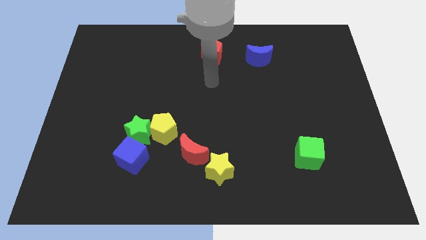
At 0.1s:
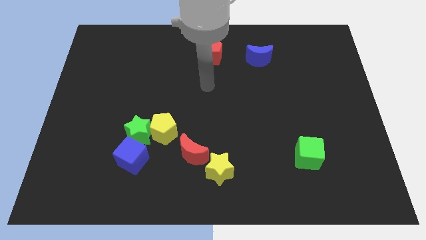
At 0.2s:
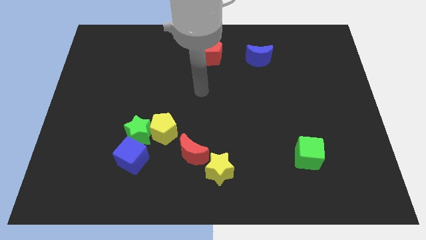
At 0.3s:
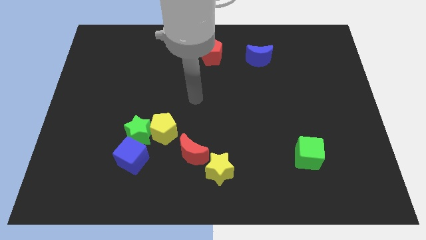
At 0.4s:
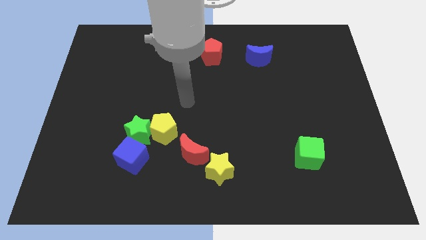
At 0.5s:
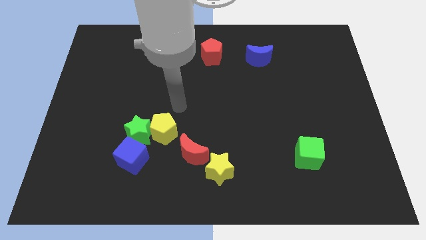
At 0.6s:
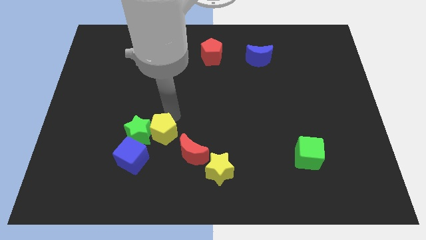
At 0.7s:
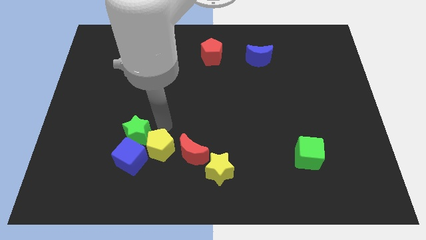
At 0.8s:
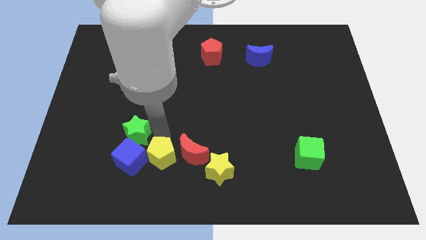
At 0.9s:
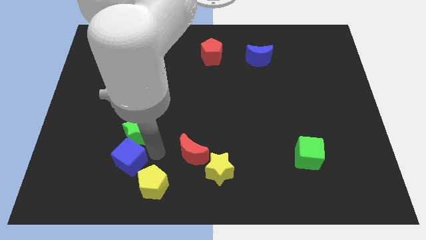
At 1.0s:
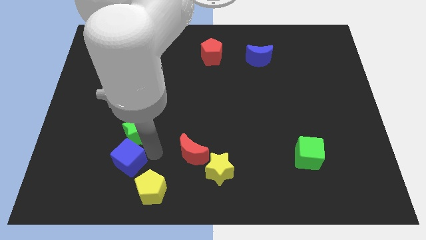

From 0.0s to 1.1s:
pull the green star apart from the yellow pentagon and blue cube

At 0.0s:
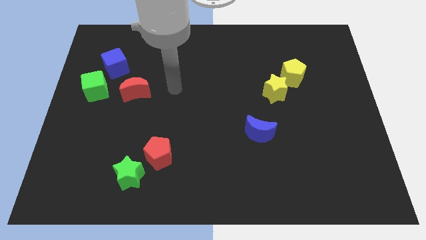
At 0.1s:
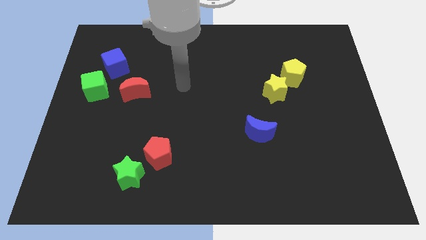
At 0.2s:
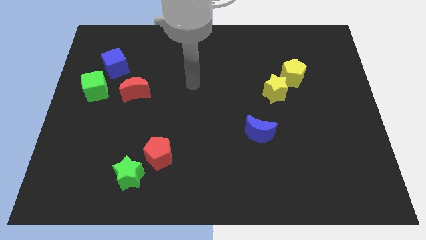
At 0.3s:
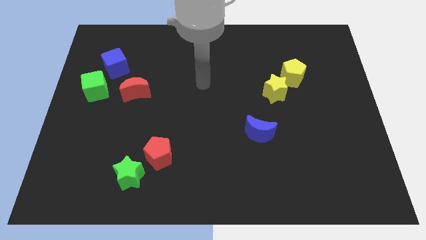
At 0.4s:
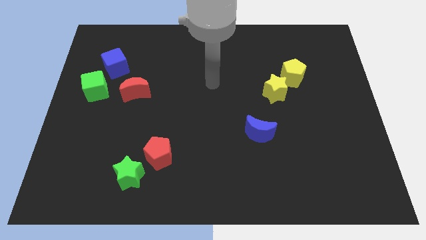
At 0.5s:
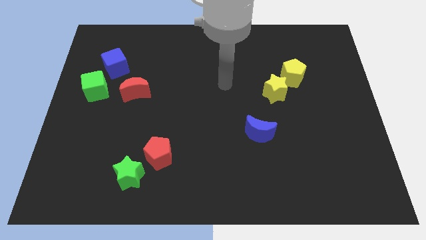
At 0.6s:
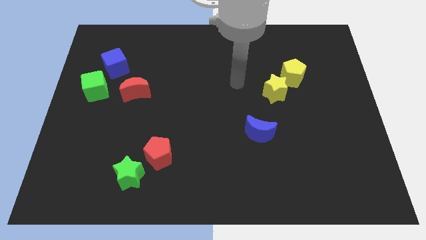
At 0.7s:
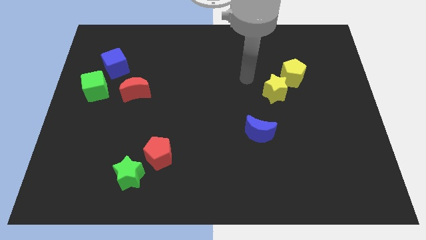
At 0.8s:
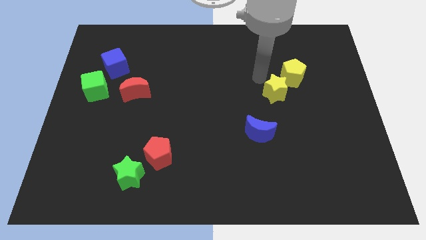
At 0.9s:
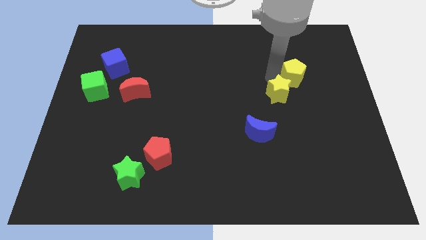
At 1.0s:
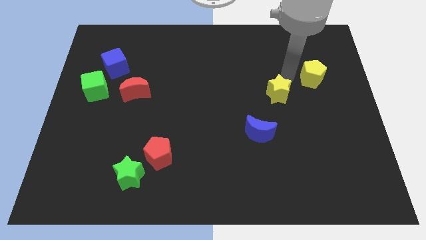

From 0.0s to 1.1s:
move the yellow star away from the yellow pentagon

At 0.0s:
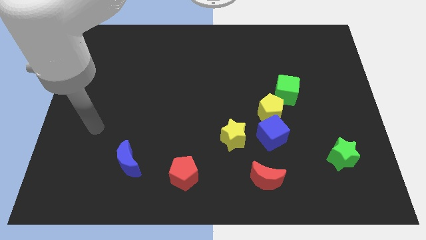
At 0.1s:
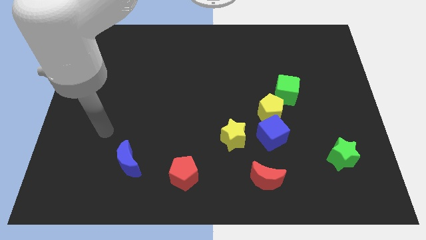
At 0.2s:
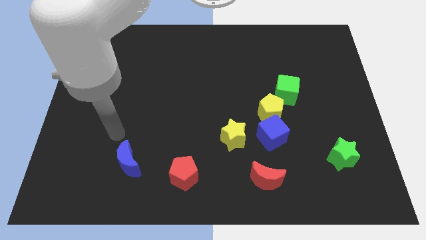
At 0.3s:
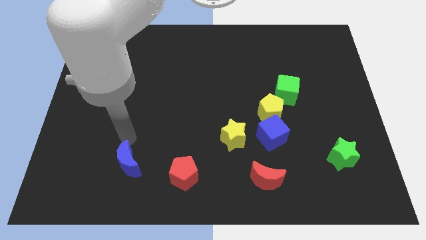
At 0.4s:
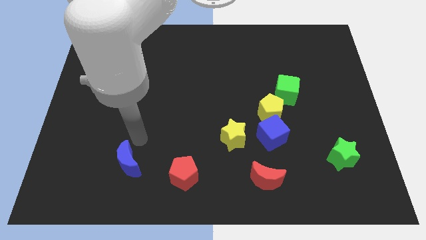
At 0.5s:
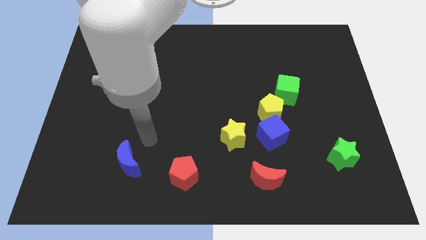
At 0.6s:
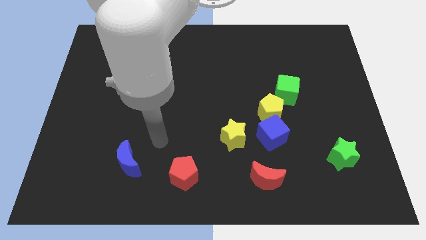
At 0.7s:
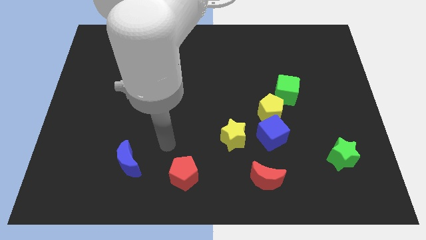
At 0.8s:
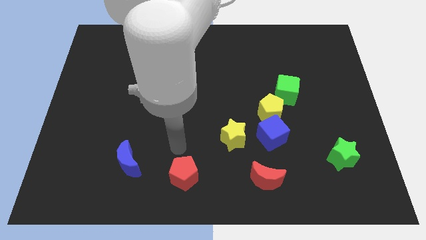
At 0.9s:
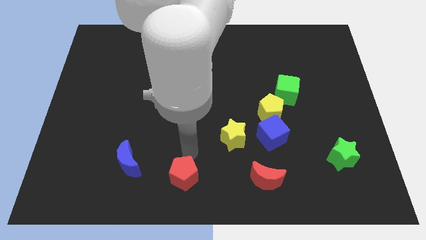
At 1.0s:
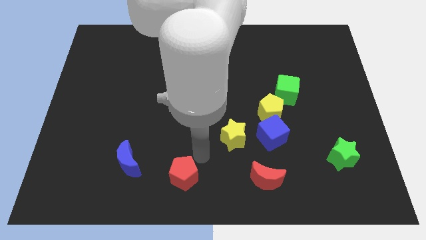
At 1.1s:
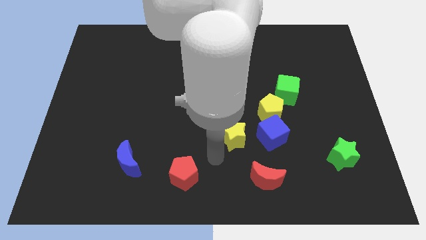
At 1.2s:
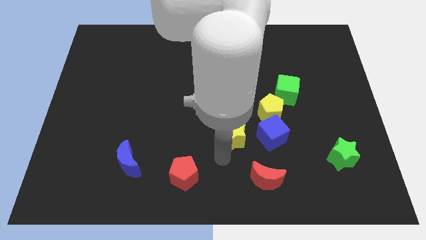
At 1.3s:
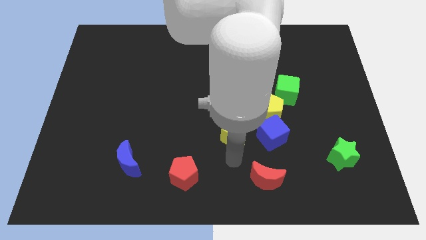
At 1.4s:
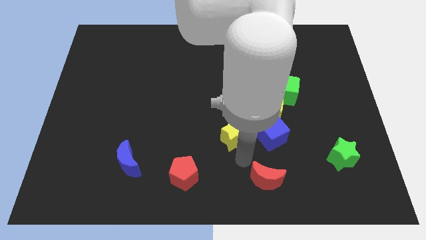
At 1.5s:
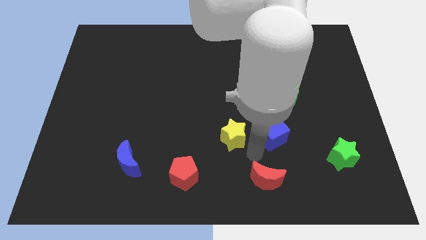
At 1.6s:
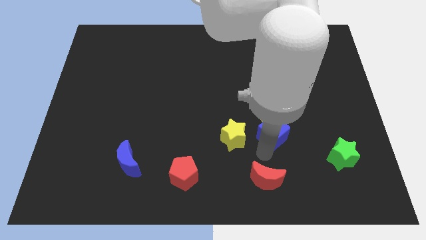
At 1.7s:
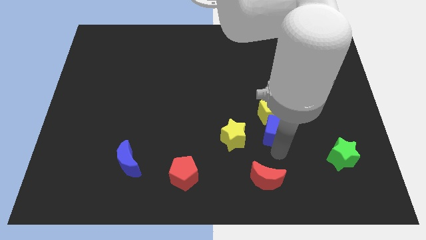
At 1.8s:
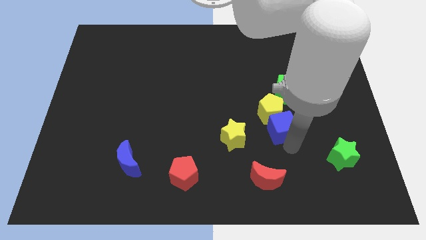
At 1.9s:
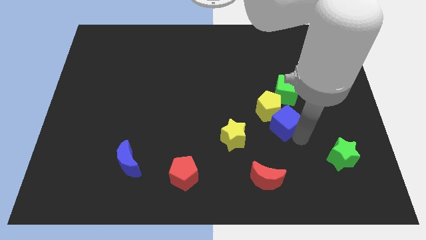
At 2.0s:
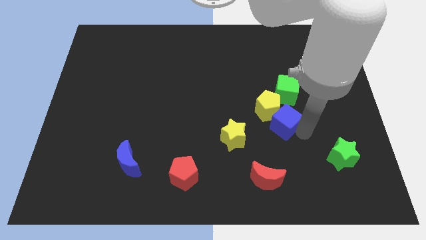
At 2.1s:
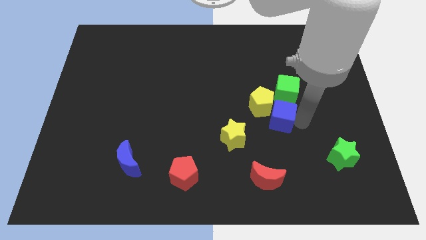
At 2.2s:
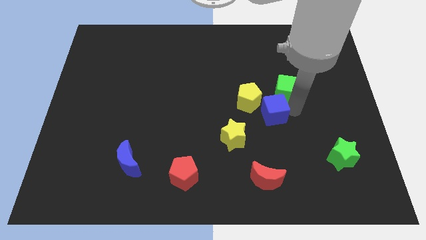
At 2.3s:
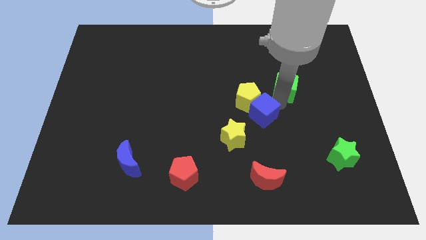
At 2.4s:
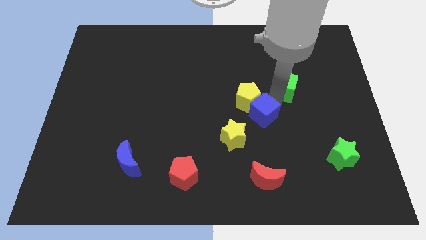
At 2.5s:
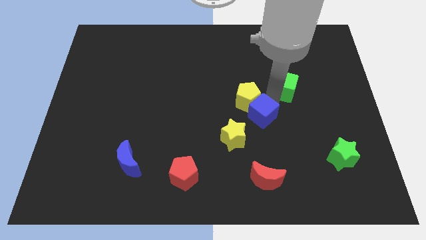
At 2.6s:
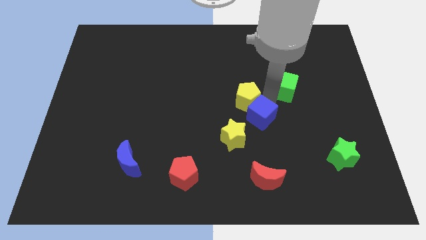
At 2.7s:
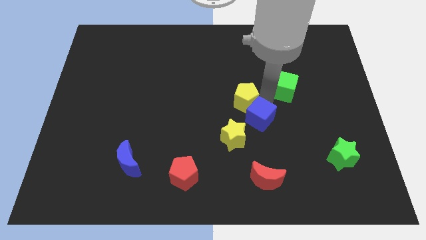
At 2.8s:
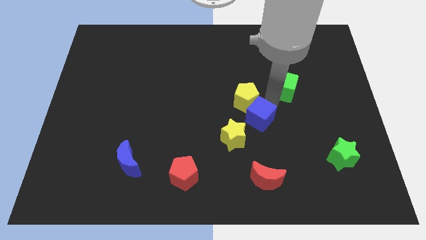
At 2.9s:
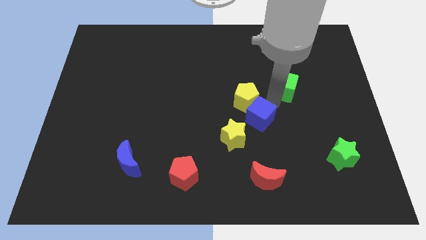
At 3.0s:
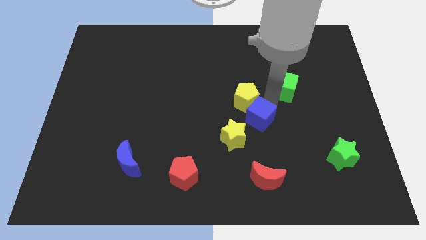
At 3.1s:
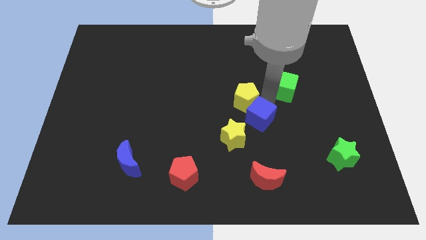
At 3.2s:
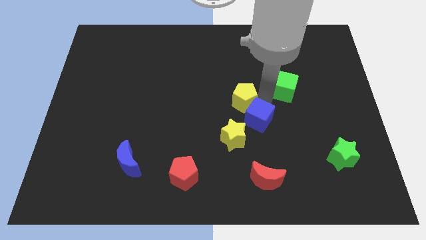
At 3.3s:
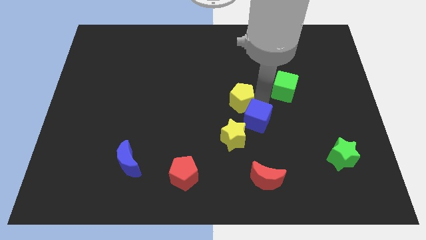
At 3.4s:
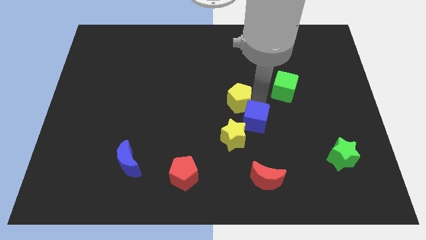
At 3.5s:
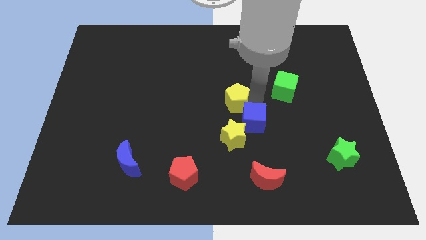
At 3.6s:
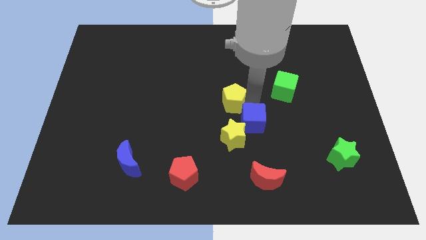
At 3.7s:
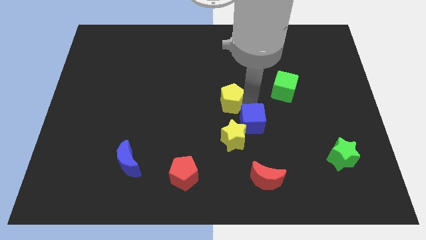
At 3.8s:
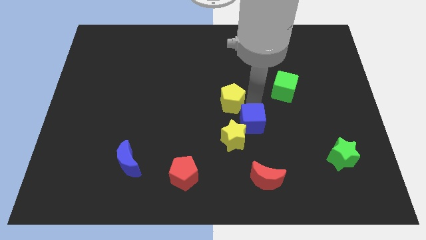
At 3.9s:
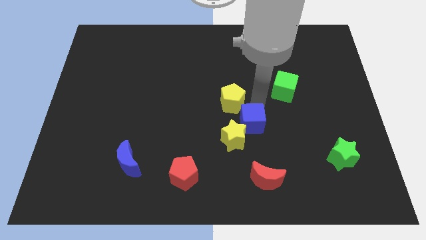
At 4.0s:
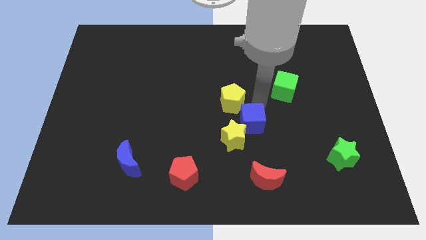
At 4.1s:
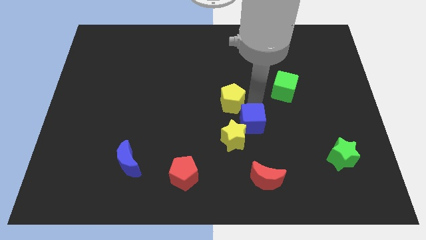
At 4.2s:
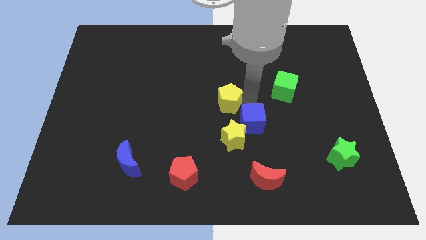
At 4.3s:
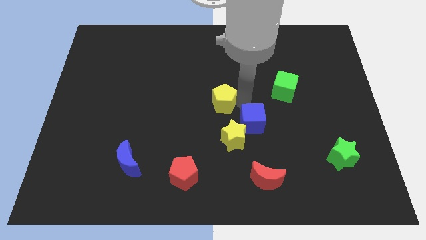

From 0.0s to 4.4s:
separate the yellow pentagon from the blue cube and green cube

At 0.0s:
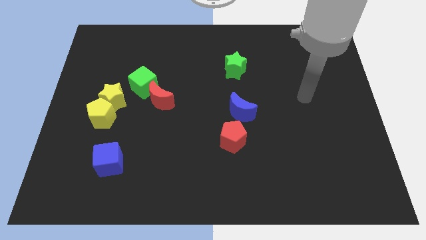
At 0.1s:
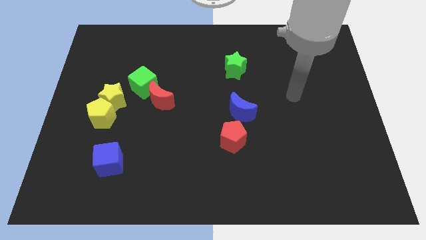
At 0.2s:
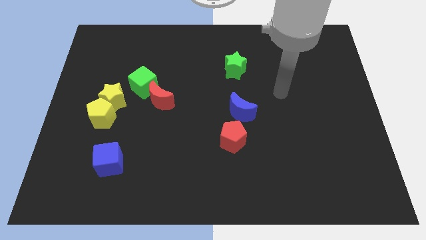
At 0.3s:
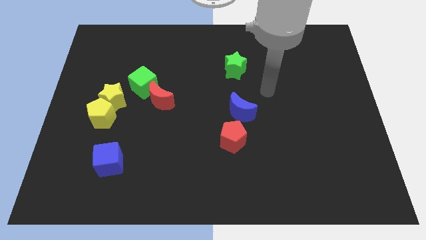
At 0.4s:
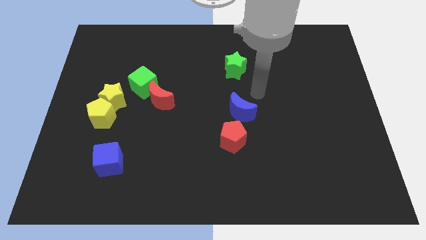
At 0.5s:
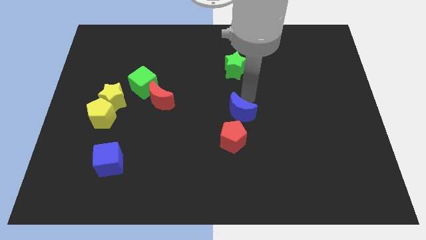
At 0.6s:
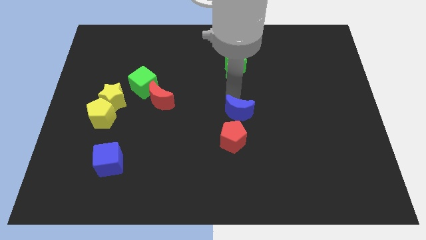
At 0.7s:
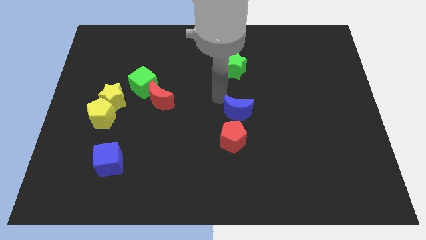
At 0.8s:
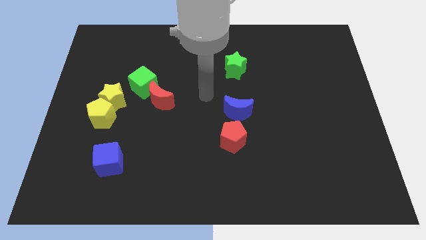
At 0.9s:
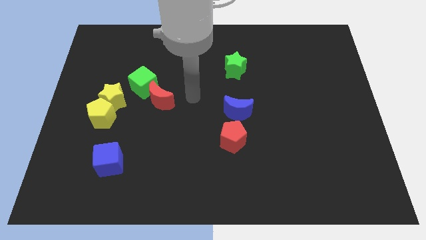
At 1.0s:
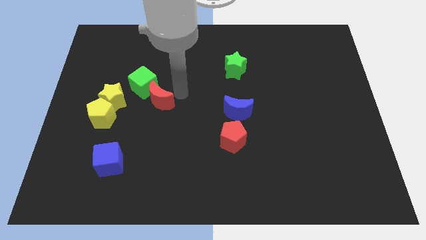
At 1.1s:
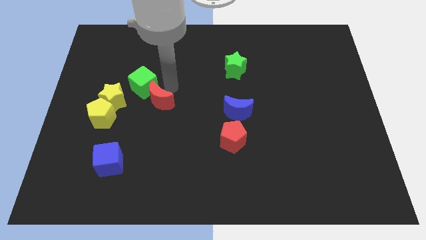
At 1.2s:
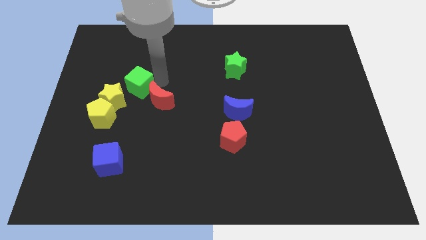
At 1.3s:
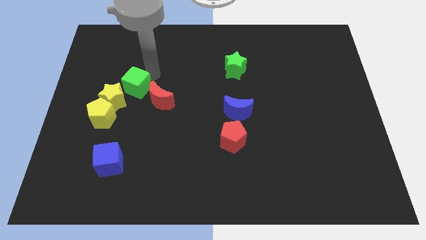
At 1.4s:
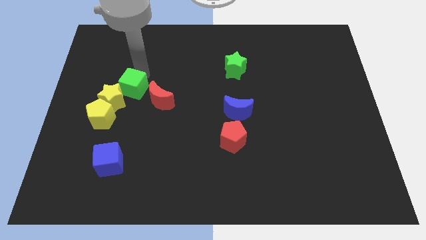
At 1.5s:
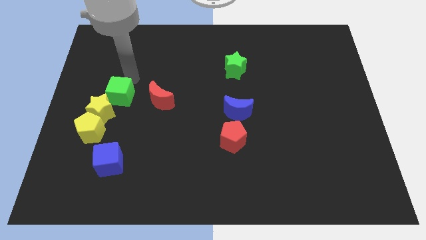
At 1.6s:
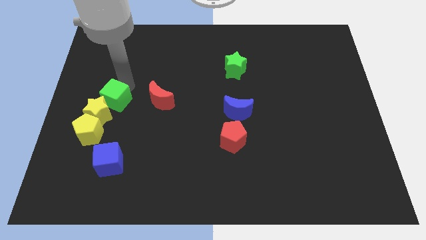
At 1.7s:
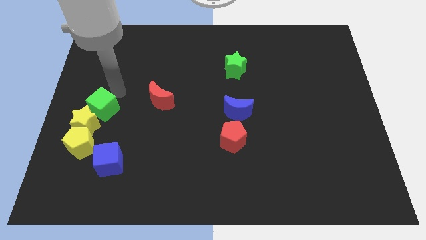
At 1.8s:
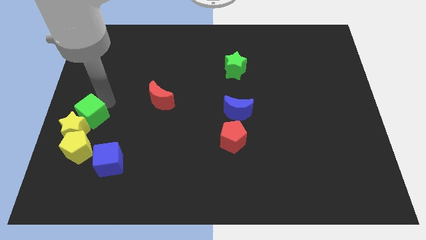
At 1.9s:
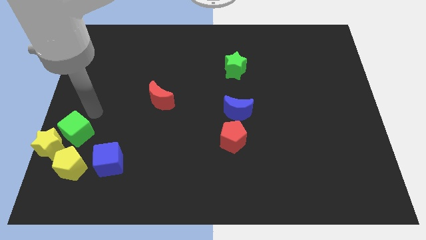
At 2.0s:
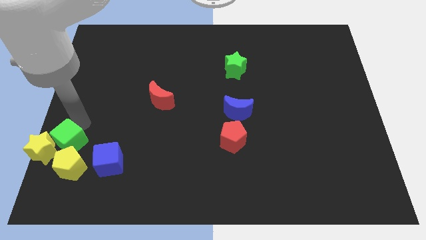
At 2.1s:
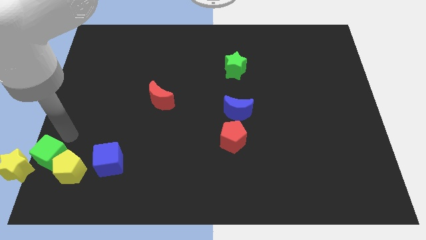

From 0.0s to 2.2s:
separate the yellow pentagon from the yellow star

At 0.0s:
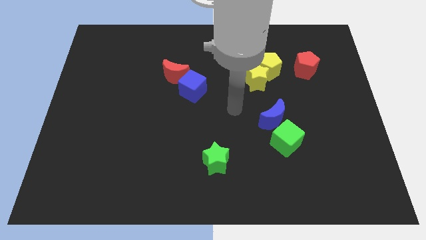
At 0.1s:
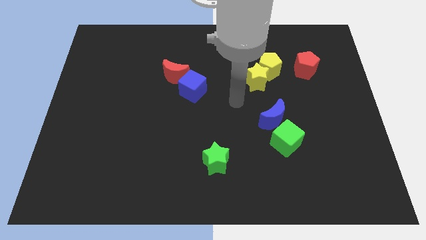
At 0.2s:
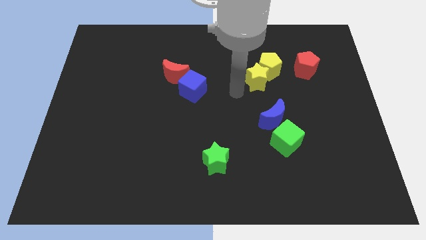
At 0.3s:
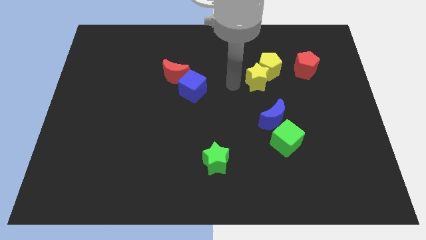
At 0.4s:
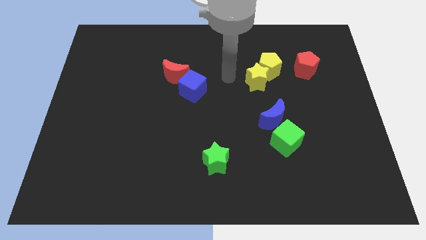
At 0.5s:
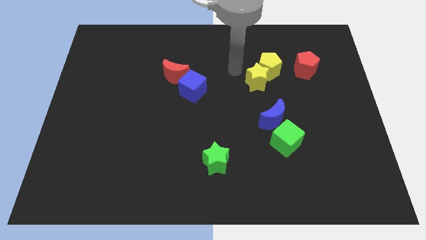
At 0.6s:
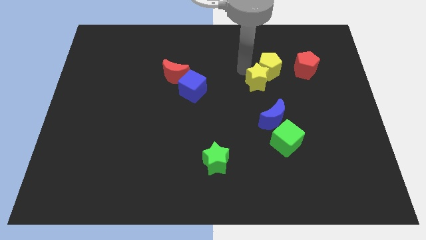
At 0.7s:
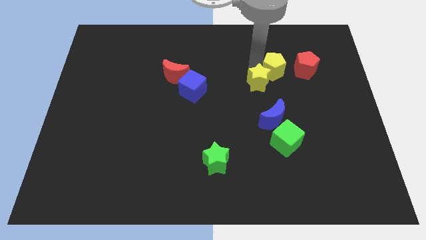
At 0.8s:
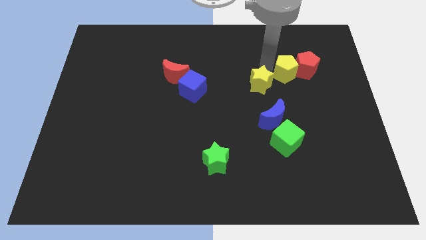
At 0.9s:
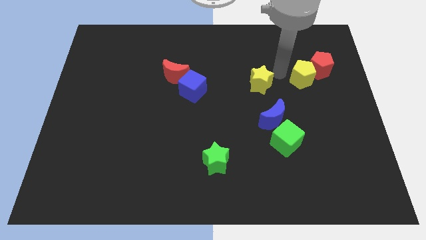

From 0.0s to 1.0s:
separate the yellow star from the yellow pentagon
